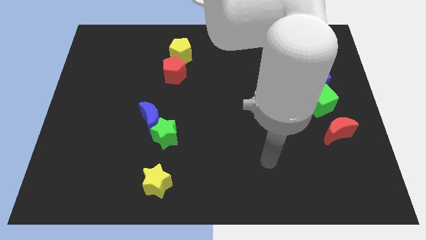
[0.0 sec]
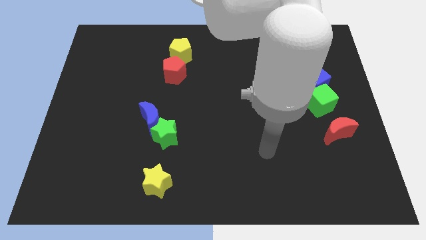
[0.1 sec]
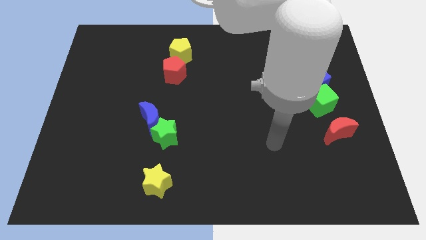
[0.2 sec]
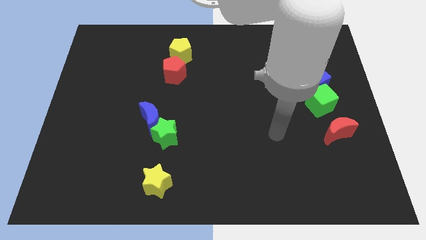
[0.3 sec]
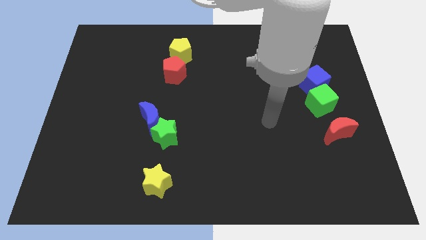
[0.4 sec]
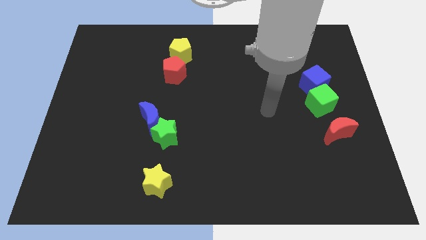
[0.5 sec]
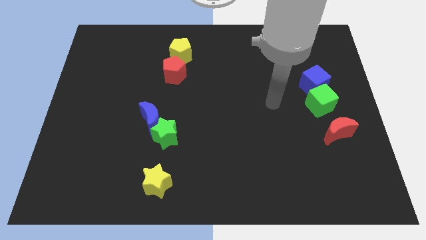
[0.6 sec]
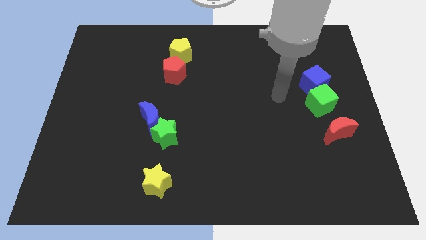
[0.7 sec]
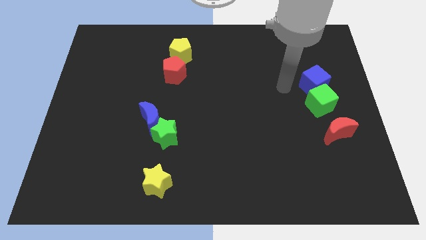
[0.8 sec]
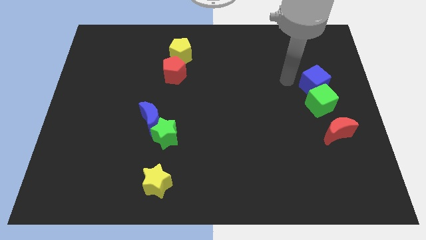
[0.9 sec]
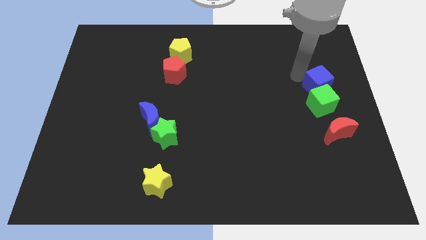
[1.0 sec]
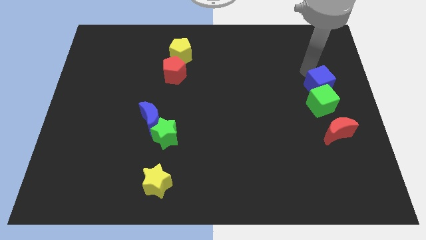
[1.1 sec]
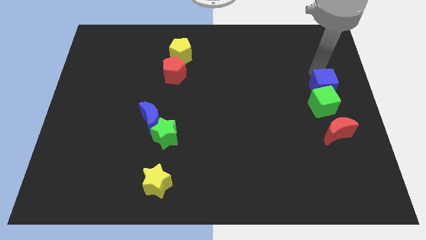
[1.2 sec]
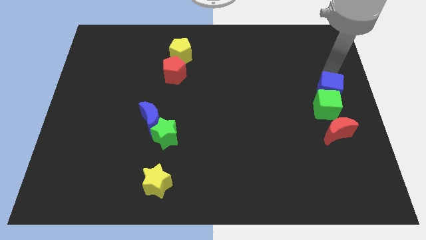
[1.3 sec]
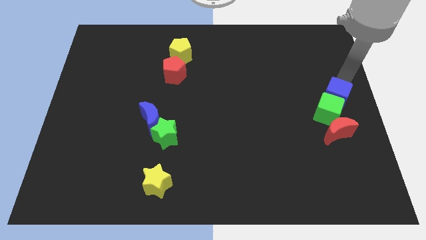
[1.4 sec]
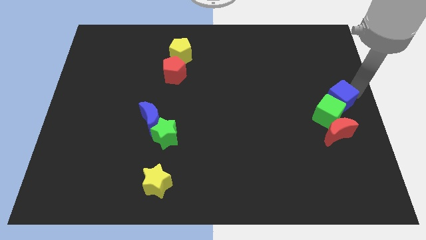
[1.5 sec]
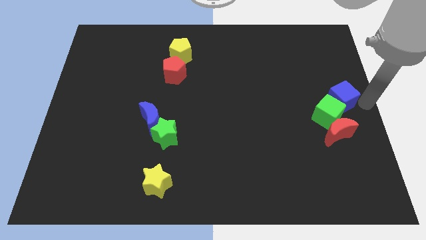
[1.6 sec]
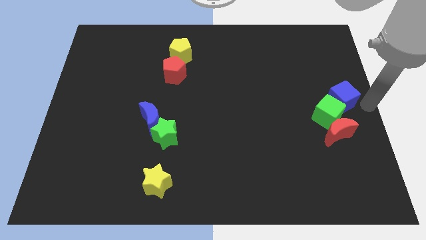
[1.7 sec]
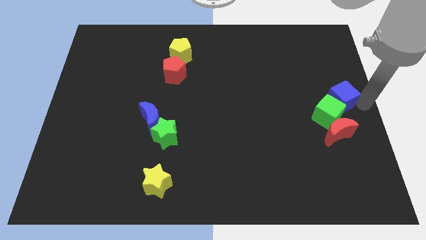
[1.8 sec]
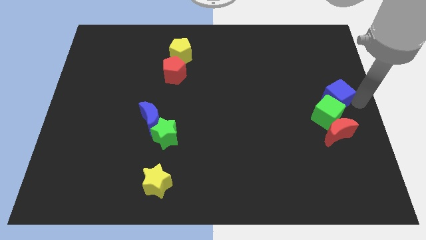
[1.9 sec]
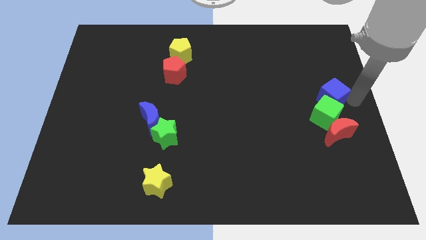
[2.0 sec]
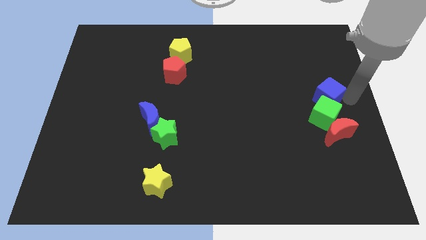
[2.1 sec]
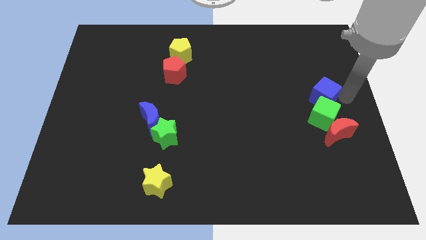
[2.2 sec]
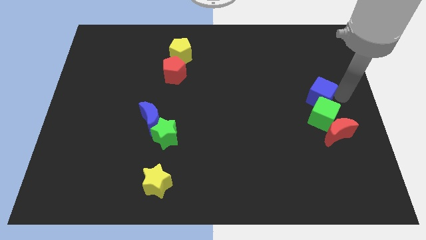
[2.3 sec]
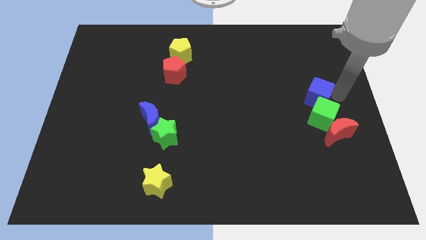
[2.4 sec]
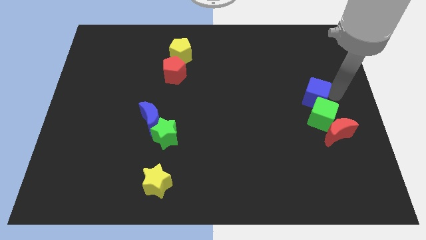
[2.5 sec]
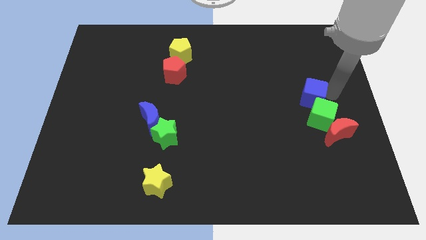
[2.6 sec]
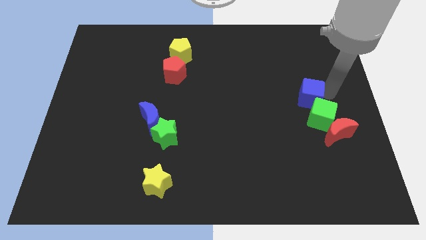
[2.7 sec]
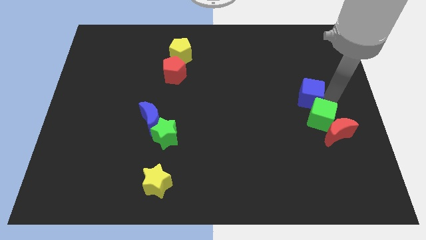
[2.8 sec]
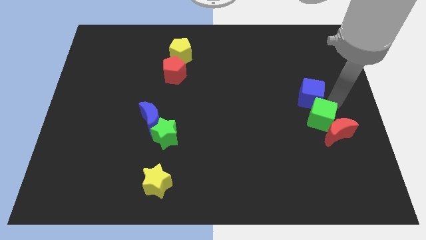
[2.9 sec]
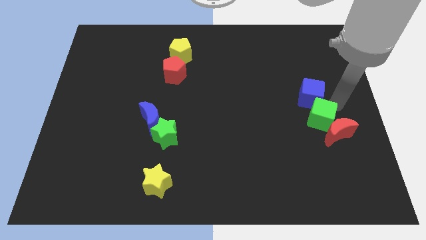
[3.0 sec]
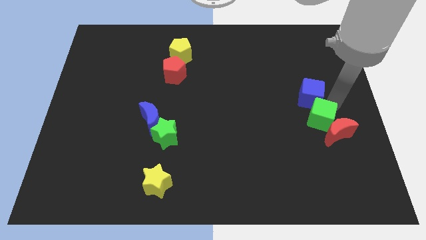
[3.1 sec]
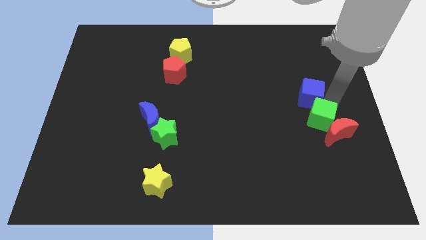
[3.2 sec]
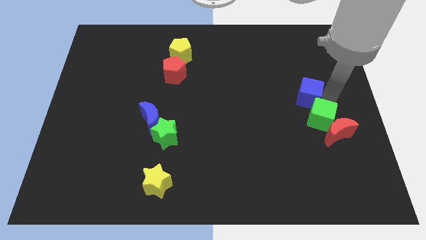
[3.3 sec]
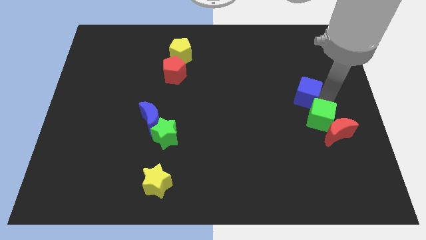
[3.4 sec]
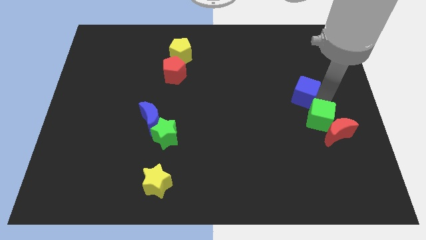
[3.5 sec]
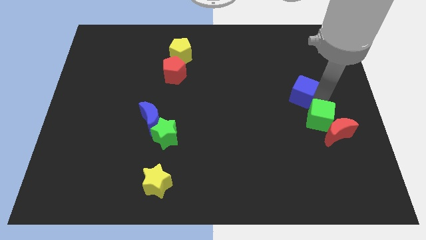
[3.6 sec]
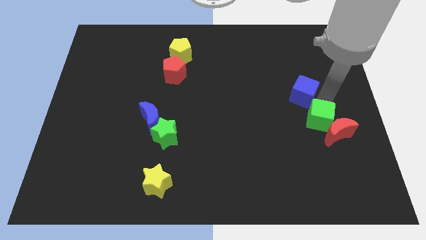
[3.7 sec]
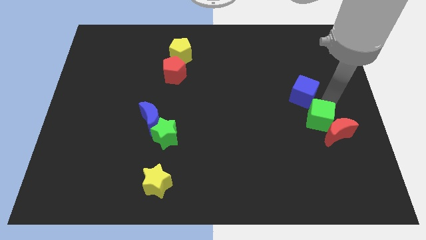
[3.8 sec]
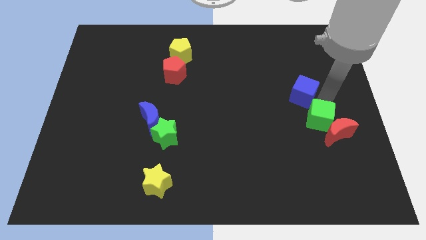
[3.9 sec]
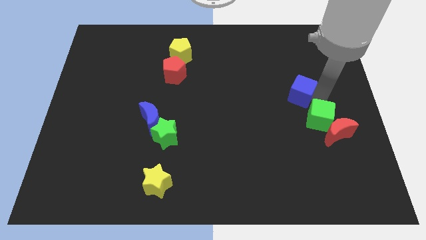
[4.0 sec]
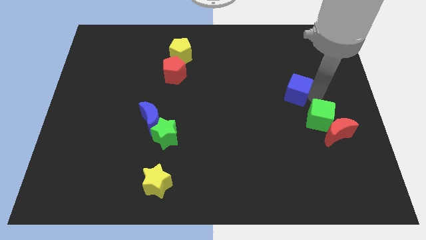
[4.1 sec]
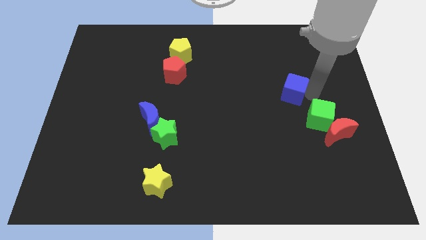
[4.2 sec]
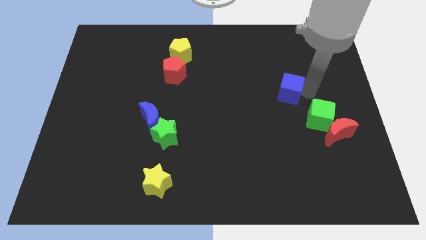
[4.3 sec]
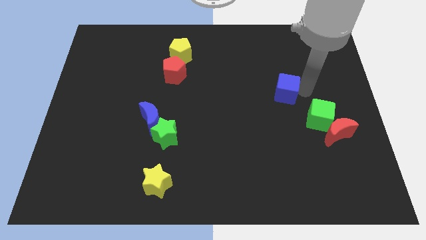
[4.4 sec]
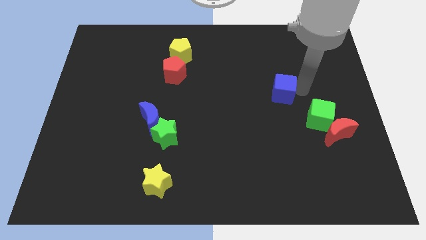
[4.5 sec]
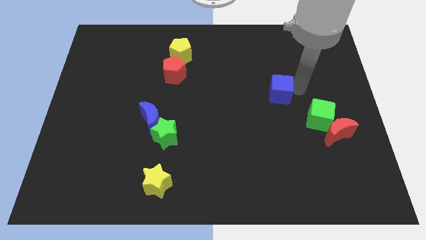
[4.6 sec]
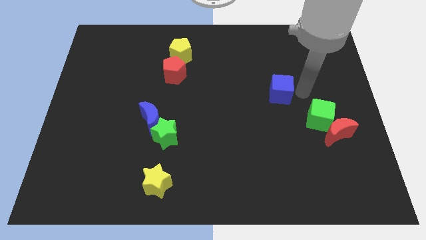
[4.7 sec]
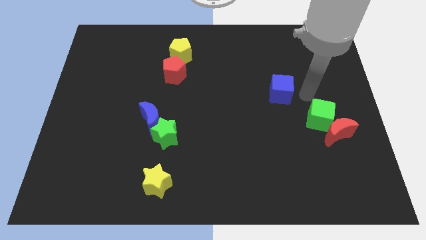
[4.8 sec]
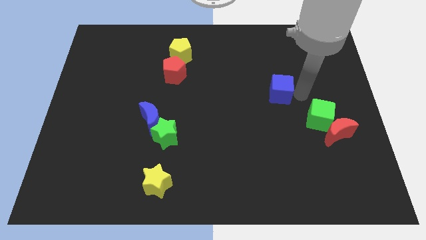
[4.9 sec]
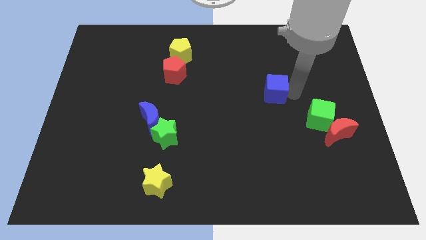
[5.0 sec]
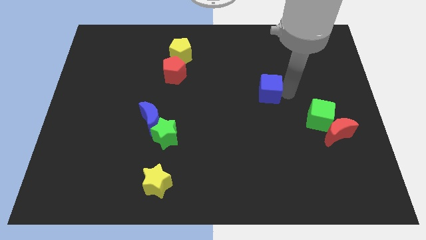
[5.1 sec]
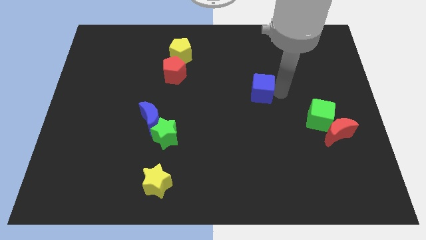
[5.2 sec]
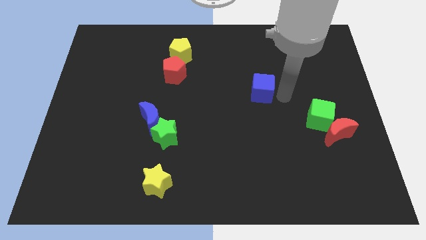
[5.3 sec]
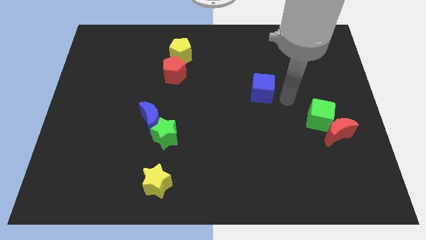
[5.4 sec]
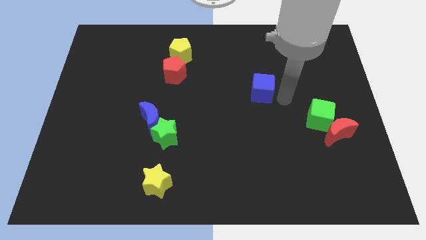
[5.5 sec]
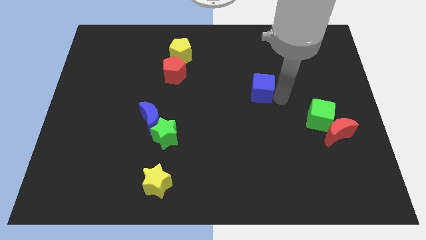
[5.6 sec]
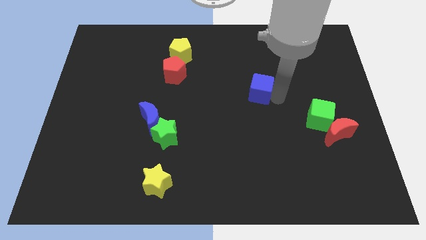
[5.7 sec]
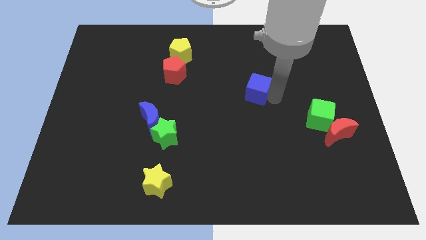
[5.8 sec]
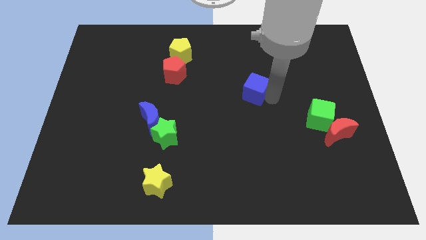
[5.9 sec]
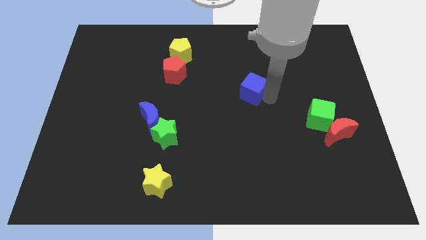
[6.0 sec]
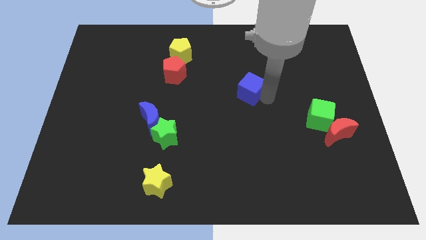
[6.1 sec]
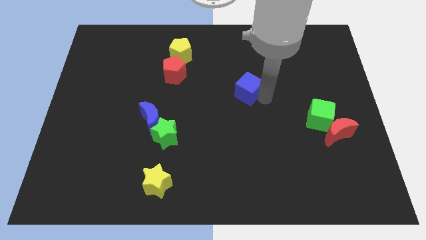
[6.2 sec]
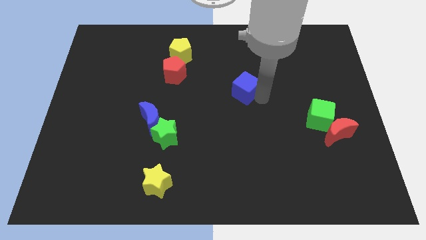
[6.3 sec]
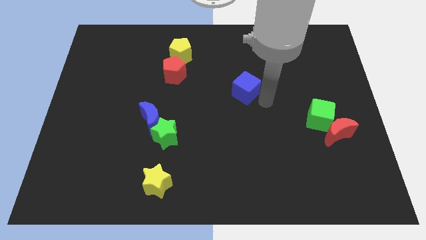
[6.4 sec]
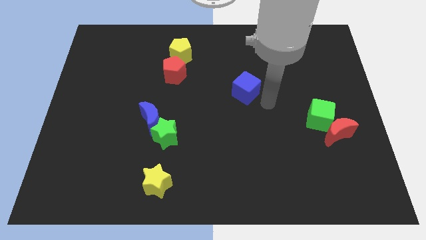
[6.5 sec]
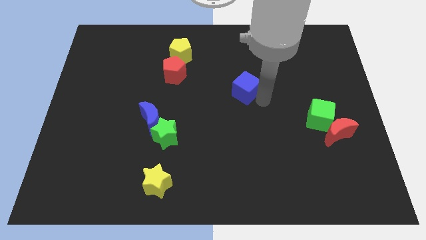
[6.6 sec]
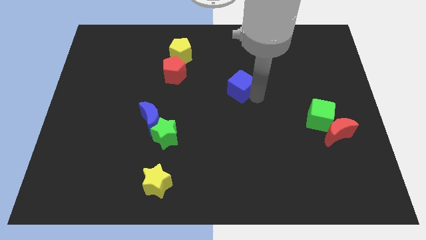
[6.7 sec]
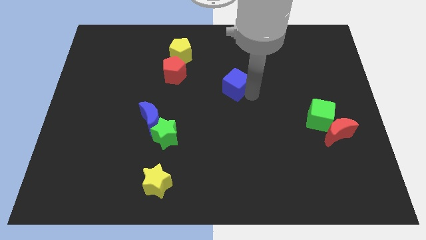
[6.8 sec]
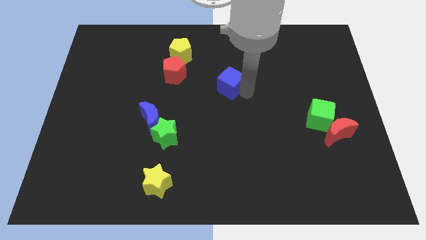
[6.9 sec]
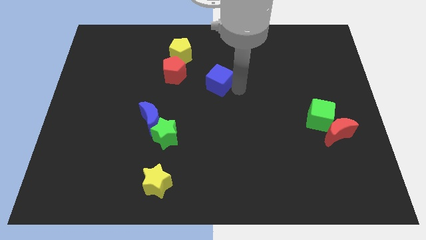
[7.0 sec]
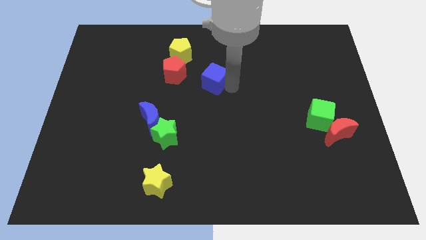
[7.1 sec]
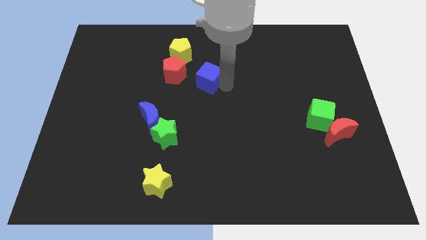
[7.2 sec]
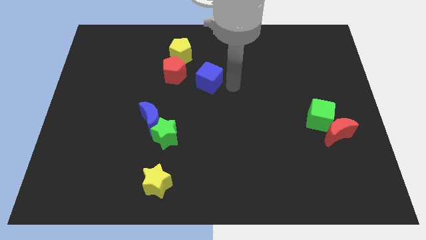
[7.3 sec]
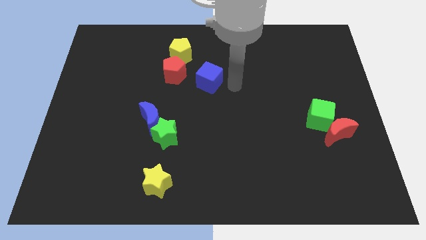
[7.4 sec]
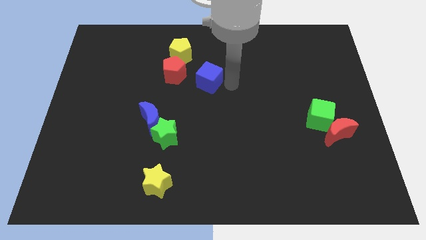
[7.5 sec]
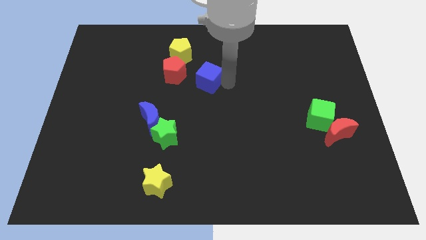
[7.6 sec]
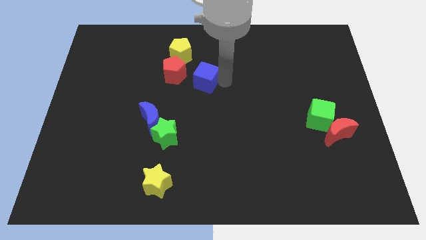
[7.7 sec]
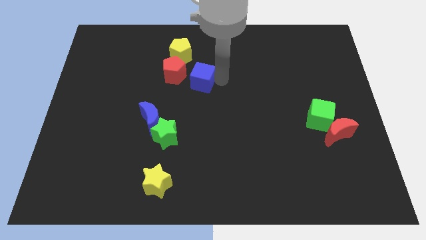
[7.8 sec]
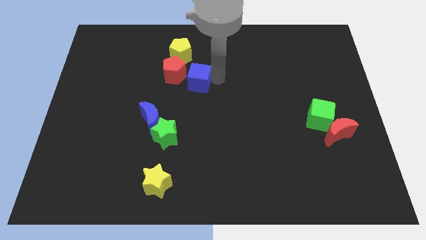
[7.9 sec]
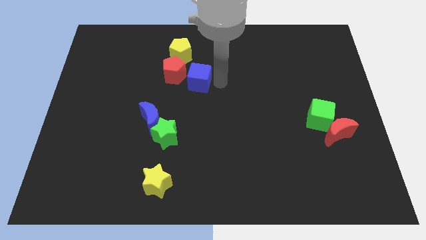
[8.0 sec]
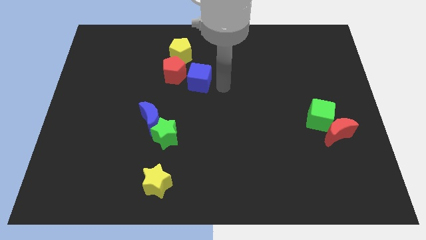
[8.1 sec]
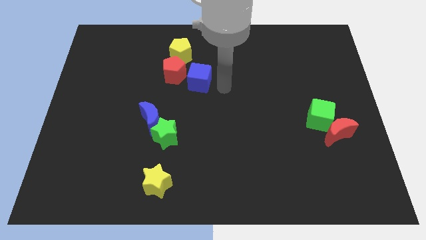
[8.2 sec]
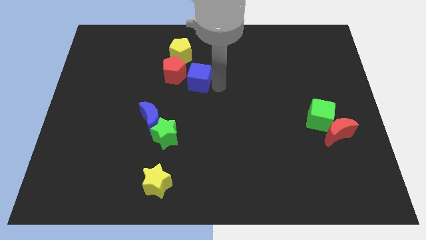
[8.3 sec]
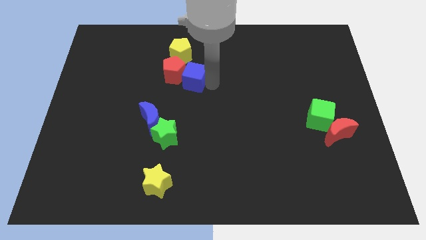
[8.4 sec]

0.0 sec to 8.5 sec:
push the blue cube towards the red pentagon
